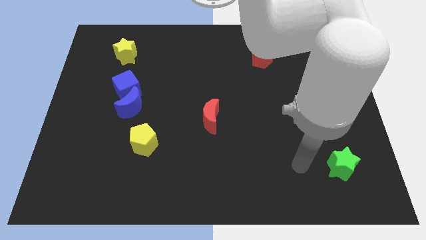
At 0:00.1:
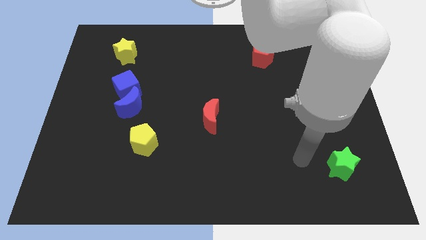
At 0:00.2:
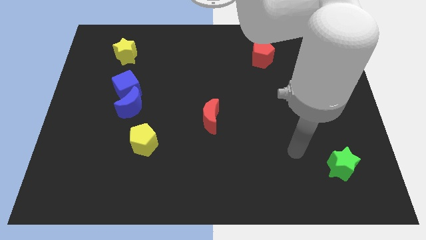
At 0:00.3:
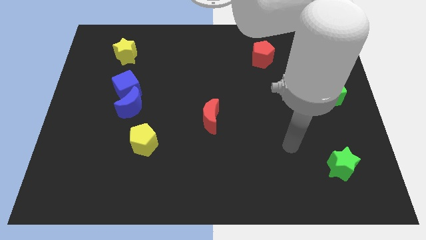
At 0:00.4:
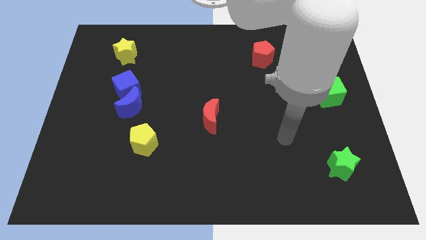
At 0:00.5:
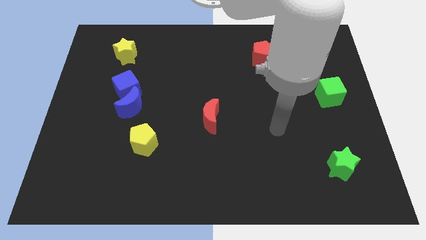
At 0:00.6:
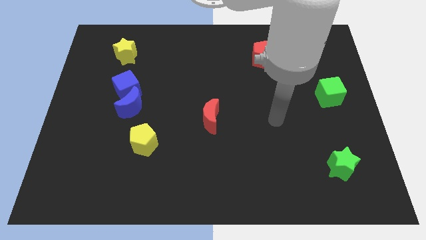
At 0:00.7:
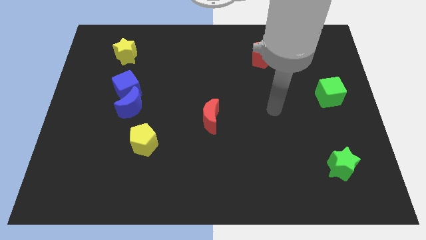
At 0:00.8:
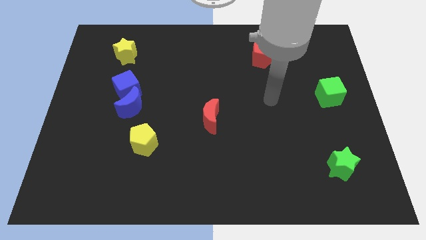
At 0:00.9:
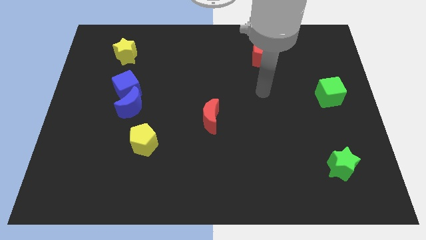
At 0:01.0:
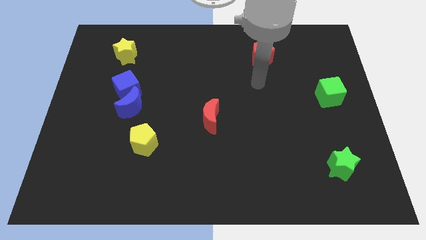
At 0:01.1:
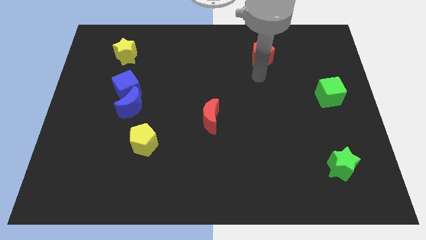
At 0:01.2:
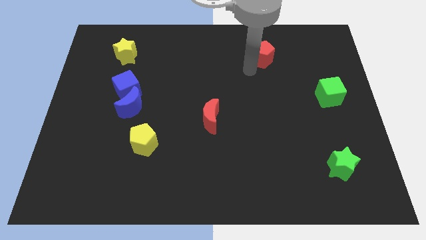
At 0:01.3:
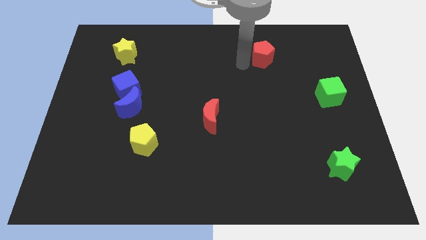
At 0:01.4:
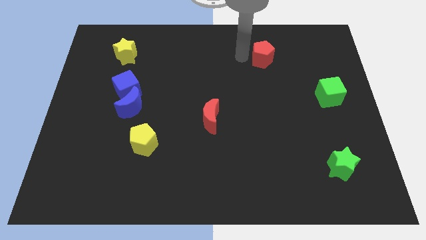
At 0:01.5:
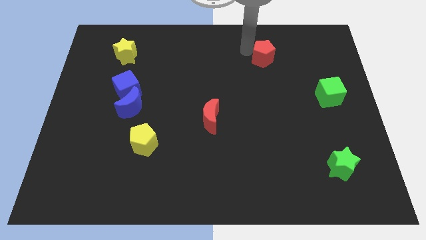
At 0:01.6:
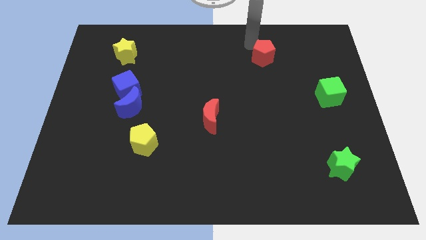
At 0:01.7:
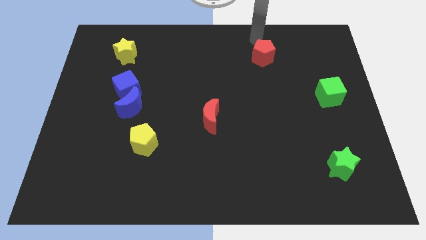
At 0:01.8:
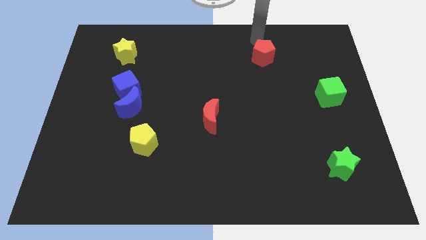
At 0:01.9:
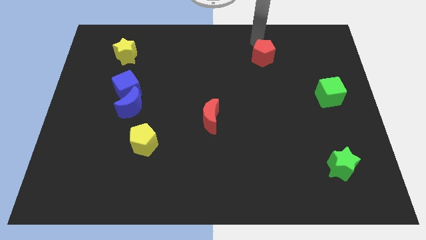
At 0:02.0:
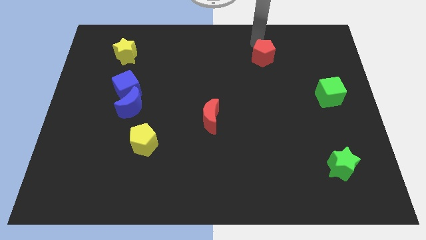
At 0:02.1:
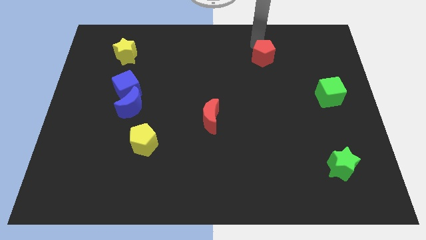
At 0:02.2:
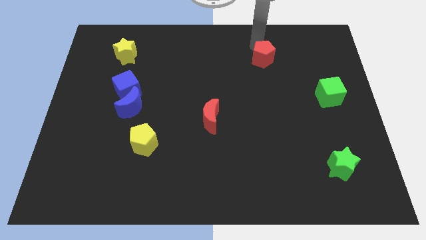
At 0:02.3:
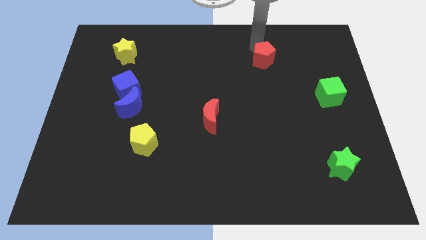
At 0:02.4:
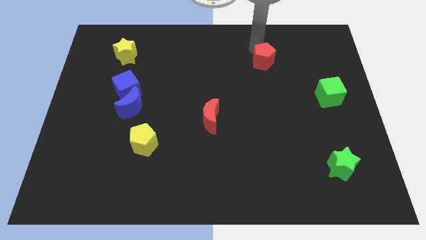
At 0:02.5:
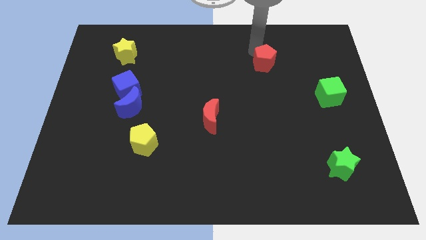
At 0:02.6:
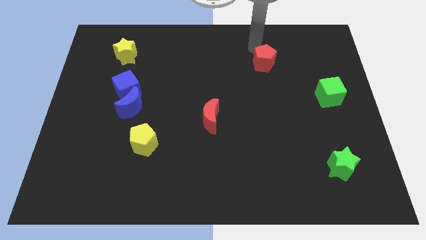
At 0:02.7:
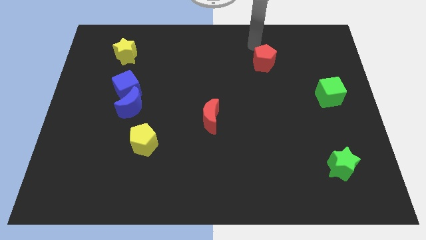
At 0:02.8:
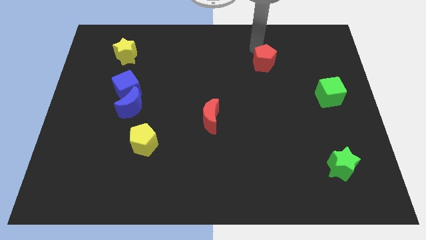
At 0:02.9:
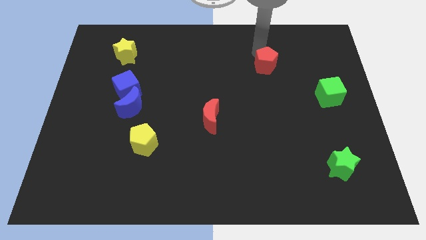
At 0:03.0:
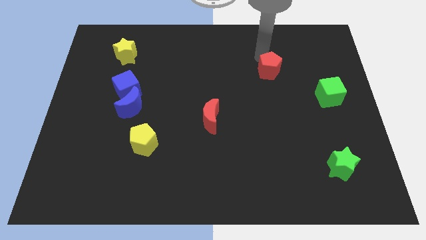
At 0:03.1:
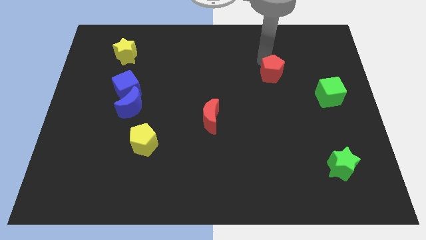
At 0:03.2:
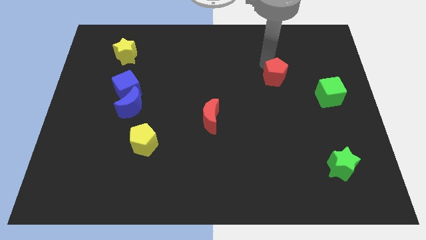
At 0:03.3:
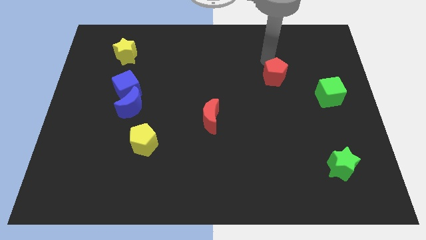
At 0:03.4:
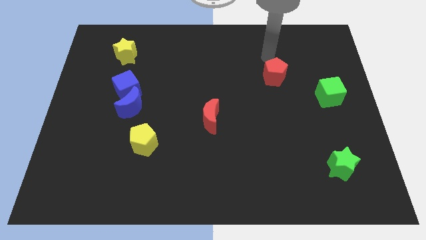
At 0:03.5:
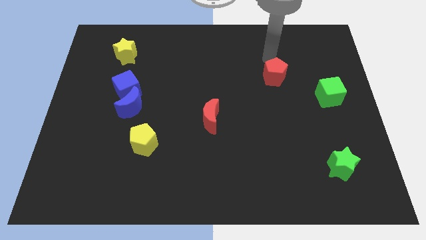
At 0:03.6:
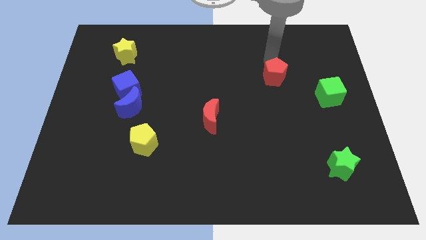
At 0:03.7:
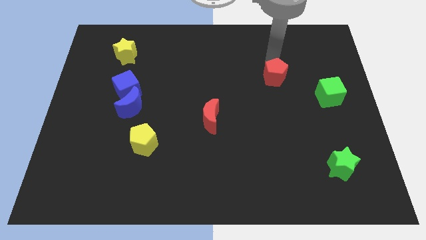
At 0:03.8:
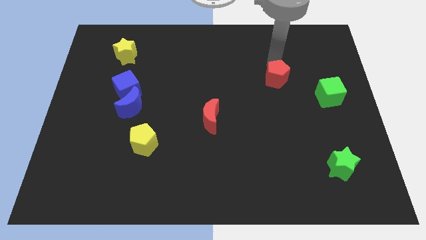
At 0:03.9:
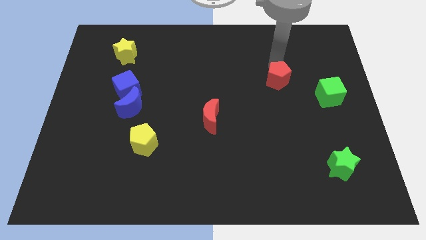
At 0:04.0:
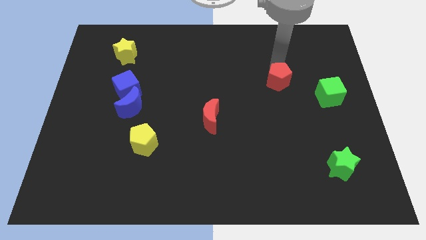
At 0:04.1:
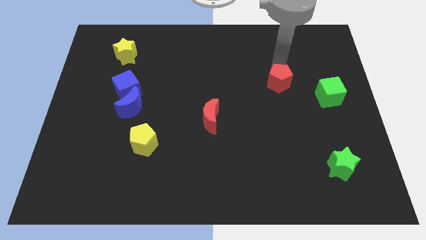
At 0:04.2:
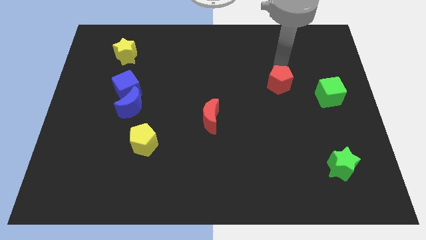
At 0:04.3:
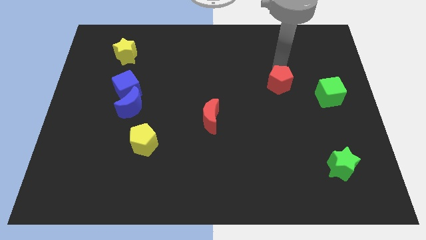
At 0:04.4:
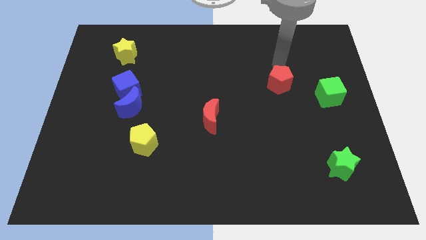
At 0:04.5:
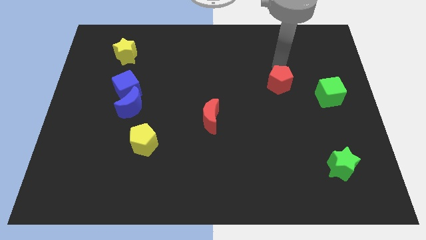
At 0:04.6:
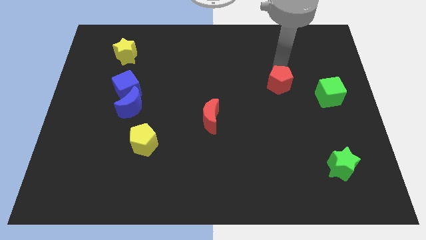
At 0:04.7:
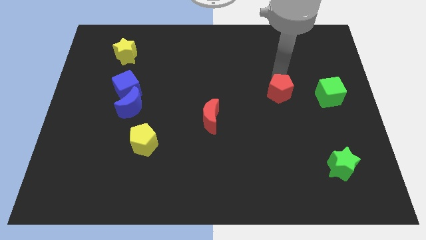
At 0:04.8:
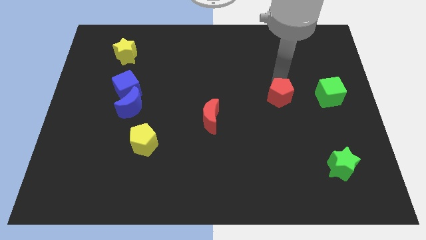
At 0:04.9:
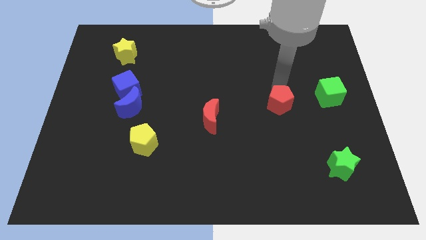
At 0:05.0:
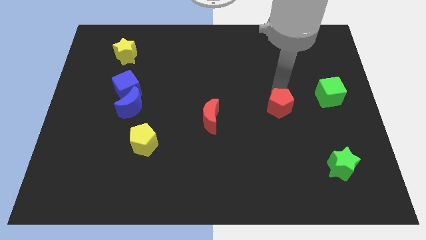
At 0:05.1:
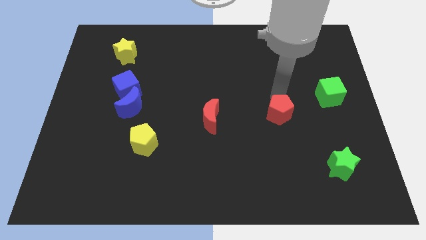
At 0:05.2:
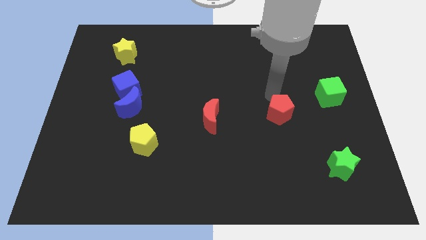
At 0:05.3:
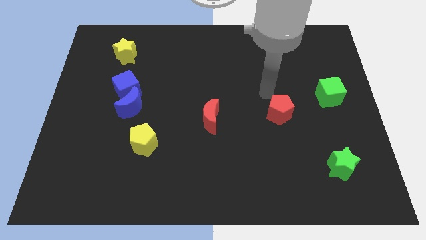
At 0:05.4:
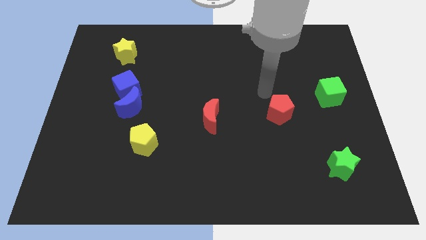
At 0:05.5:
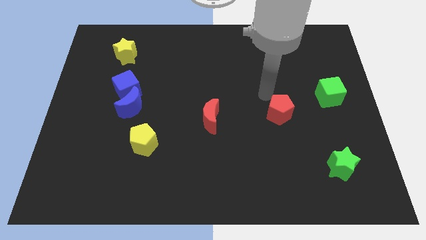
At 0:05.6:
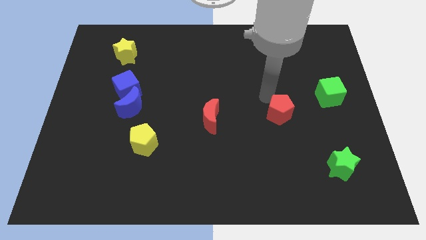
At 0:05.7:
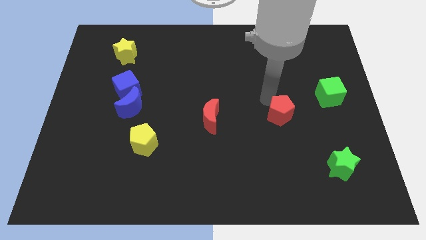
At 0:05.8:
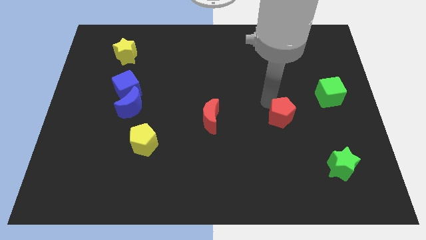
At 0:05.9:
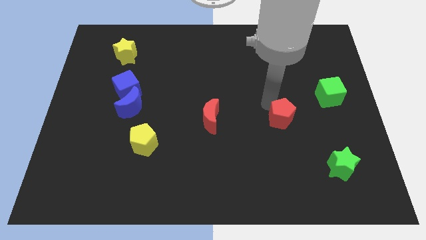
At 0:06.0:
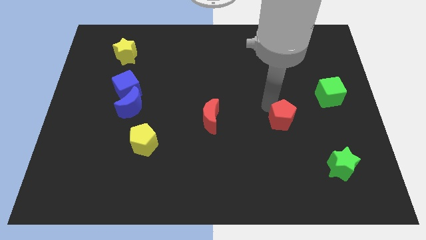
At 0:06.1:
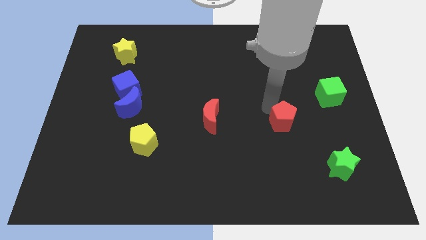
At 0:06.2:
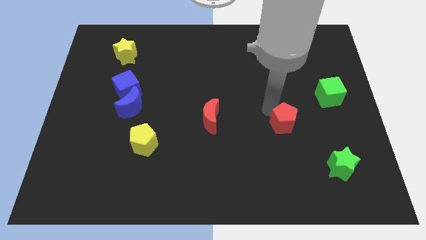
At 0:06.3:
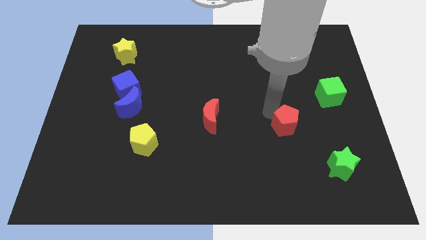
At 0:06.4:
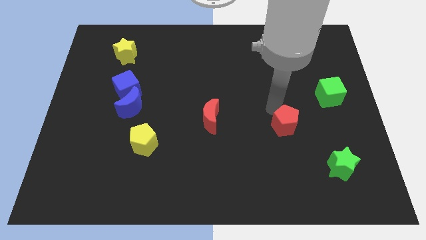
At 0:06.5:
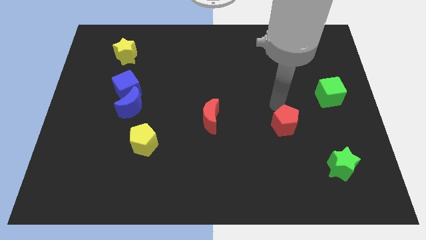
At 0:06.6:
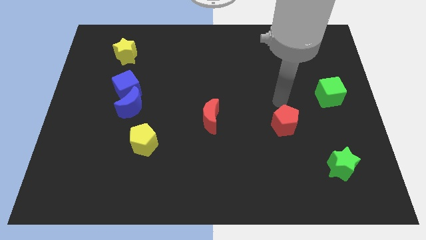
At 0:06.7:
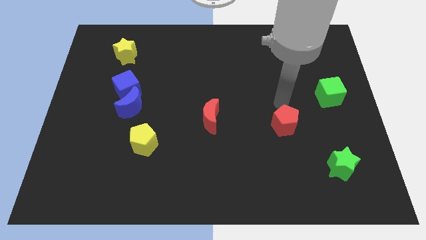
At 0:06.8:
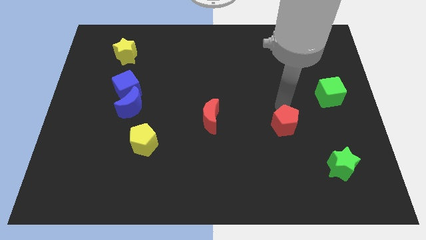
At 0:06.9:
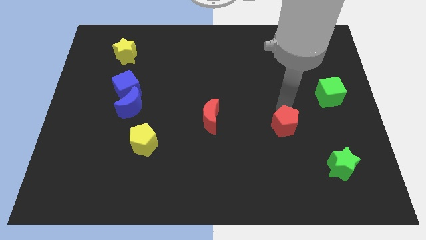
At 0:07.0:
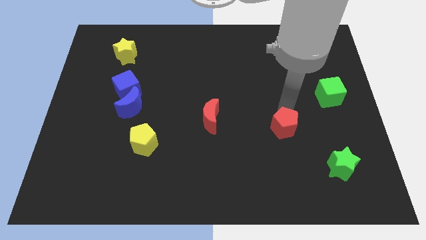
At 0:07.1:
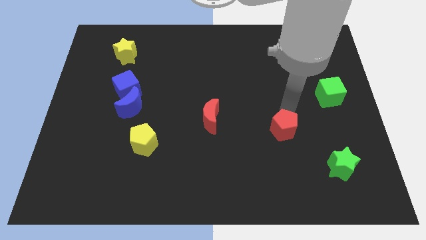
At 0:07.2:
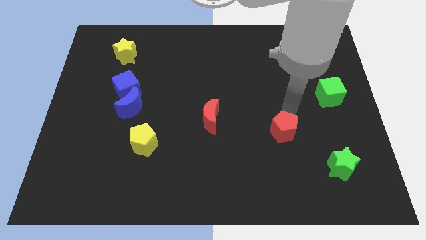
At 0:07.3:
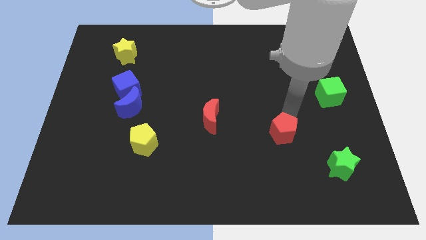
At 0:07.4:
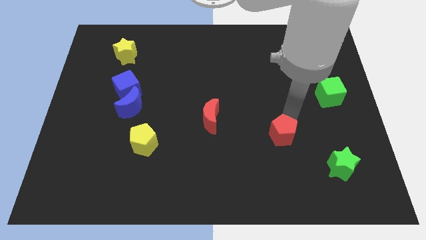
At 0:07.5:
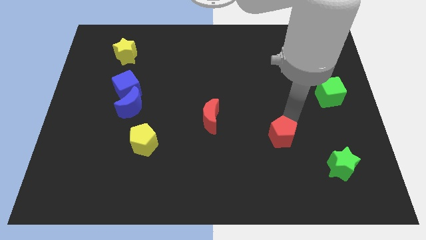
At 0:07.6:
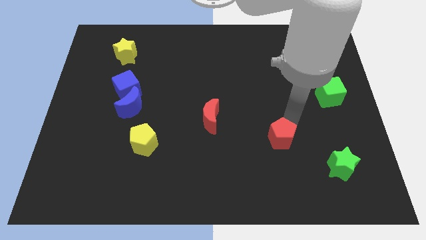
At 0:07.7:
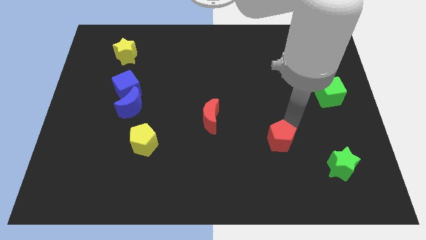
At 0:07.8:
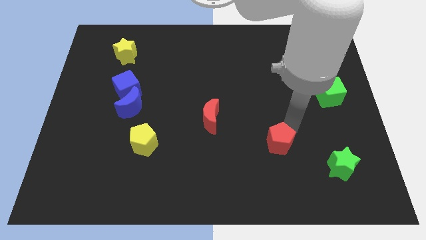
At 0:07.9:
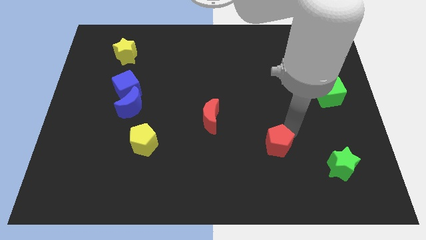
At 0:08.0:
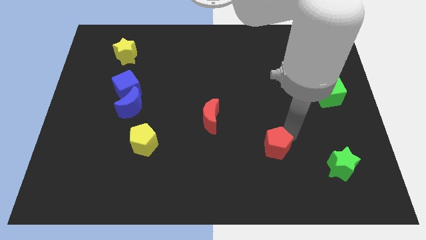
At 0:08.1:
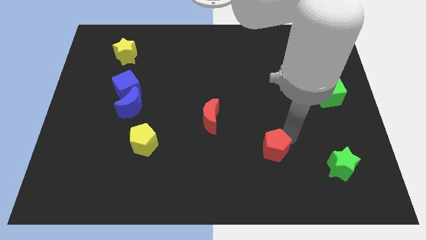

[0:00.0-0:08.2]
move the red pentagon to the left of the green star
